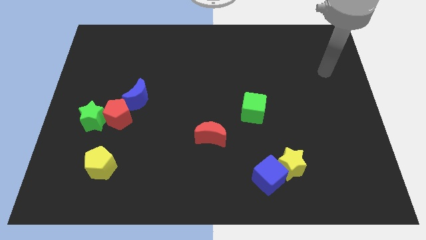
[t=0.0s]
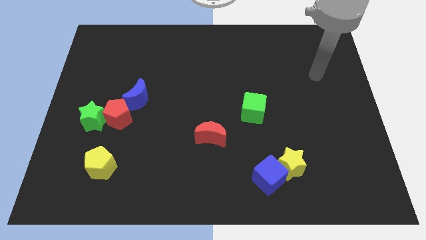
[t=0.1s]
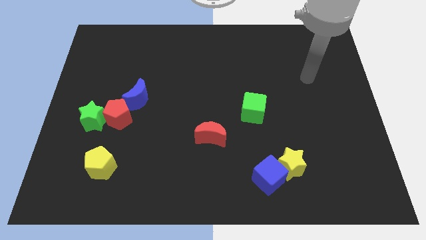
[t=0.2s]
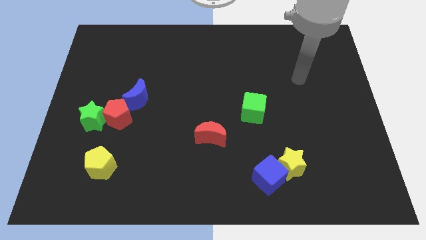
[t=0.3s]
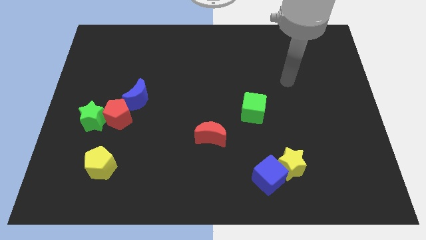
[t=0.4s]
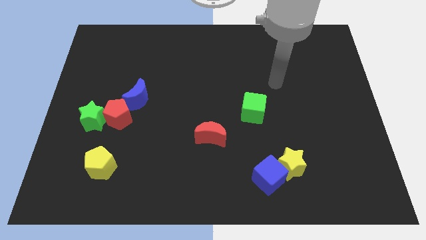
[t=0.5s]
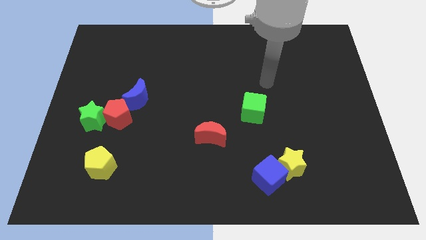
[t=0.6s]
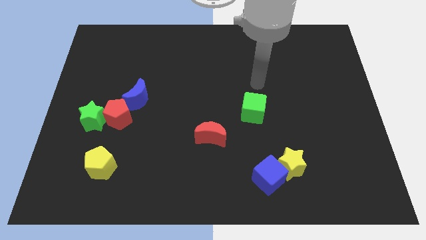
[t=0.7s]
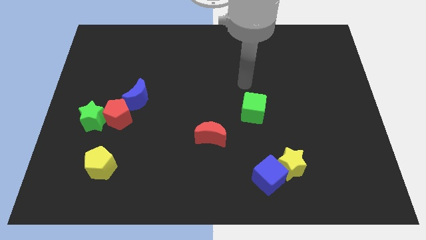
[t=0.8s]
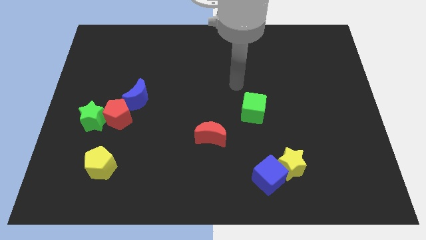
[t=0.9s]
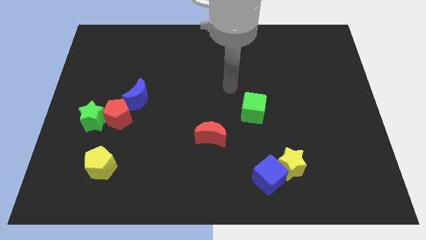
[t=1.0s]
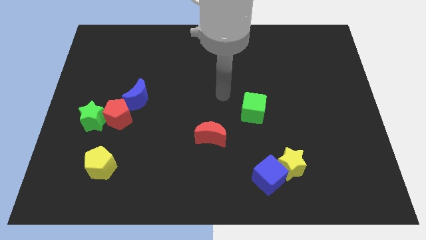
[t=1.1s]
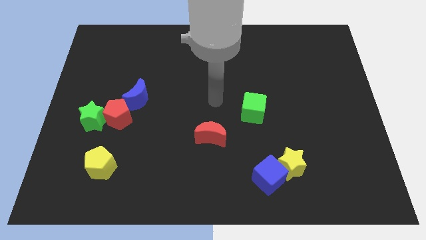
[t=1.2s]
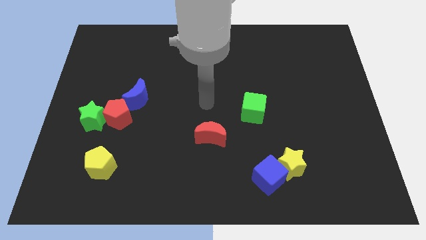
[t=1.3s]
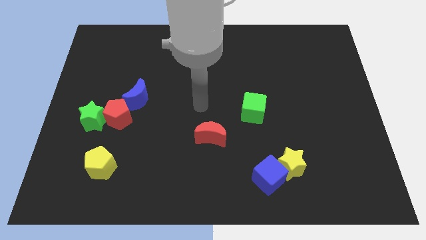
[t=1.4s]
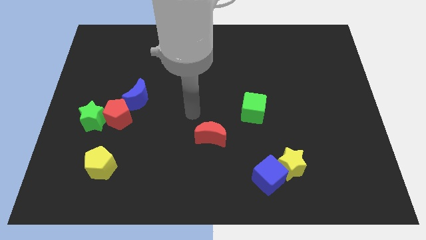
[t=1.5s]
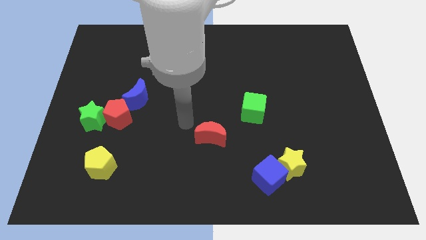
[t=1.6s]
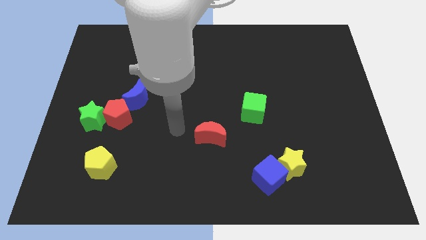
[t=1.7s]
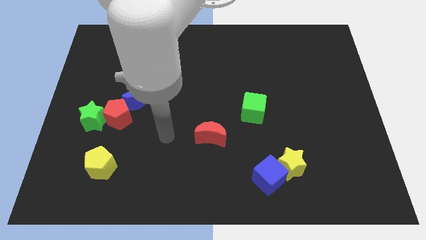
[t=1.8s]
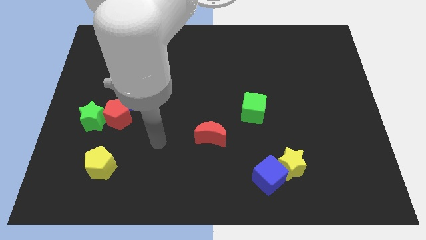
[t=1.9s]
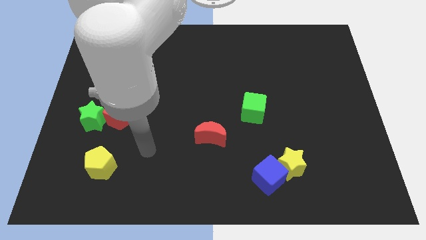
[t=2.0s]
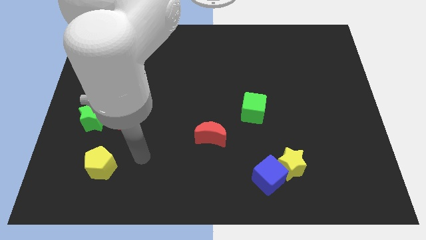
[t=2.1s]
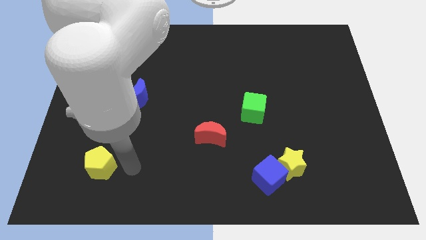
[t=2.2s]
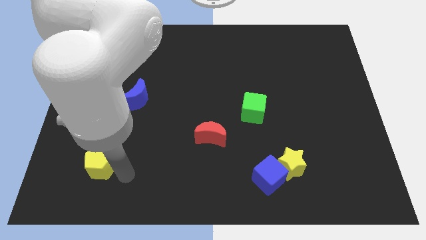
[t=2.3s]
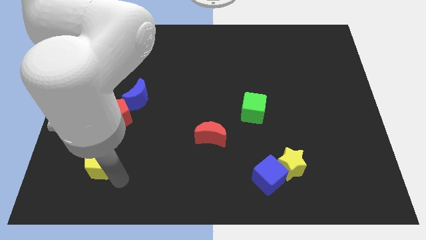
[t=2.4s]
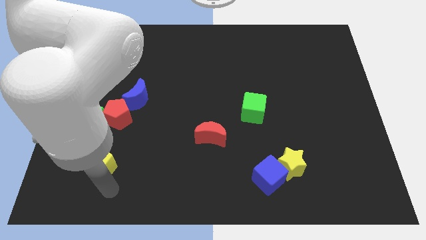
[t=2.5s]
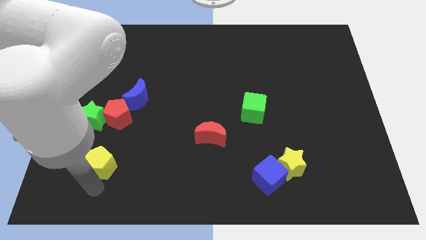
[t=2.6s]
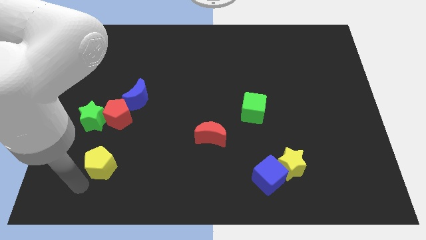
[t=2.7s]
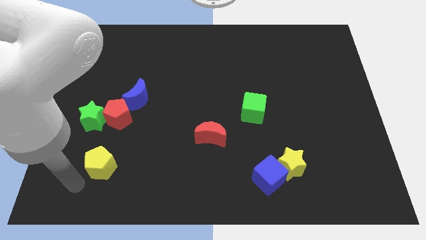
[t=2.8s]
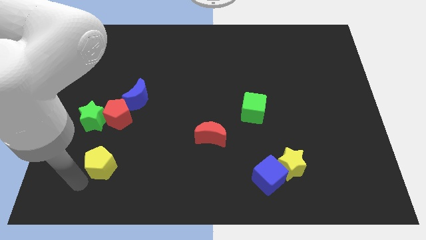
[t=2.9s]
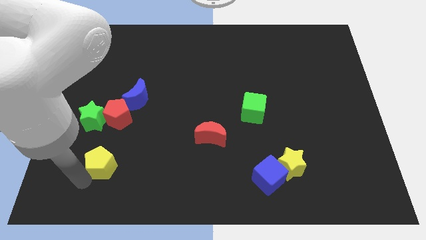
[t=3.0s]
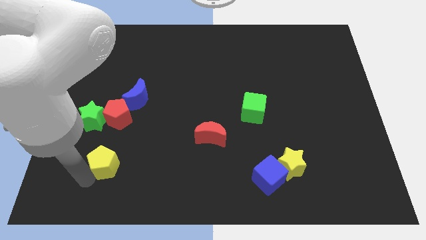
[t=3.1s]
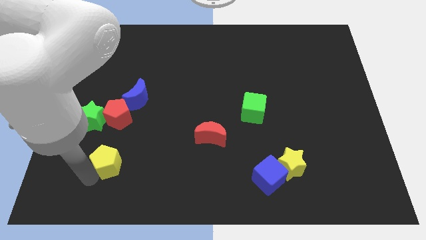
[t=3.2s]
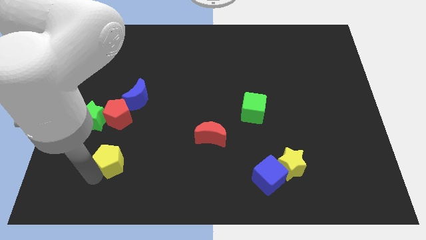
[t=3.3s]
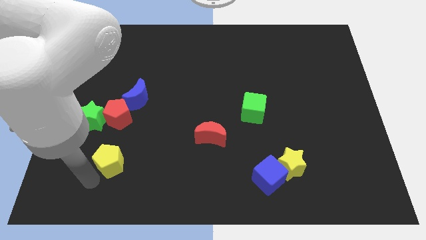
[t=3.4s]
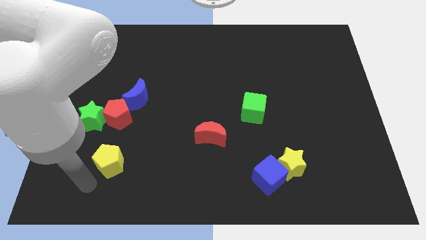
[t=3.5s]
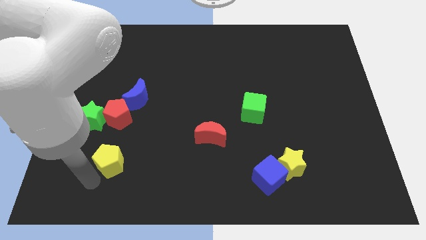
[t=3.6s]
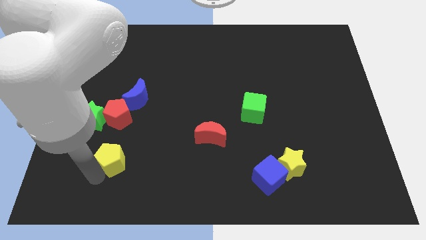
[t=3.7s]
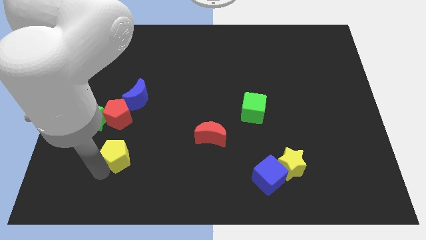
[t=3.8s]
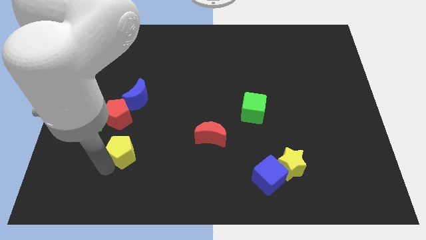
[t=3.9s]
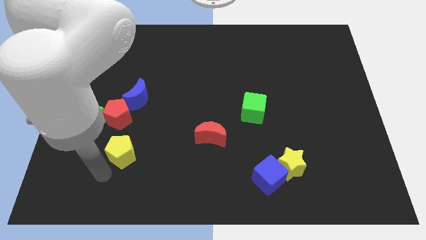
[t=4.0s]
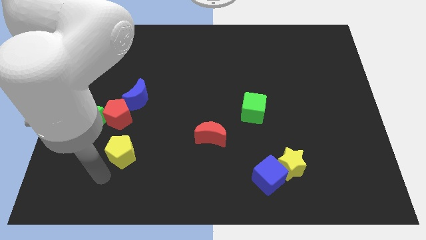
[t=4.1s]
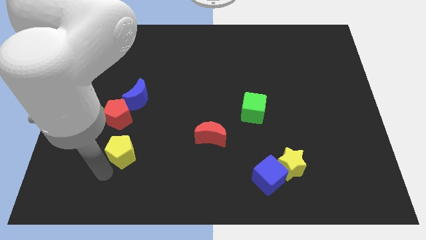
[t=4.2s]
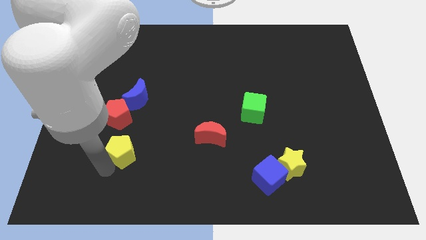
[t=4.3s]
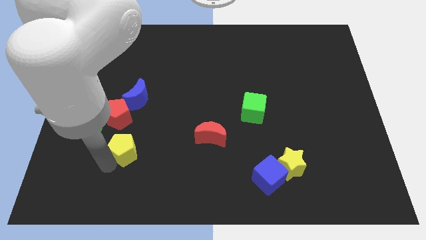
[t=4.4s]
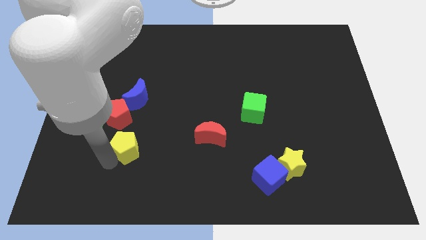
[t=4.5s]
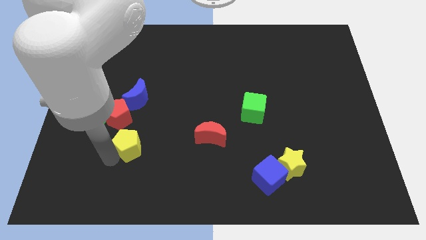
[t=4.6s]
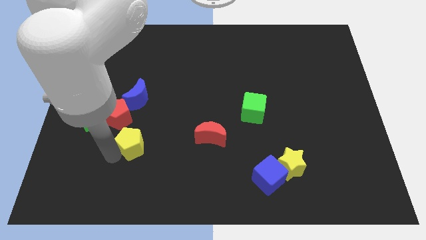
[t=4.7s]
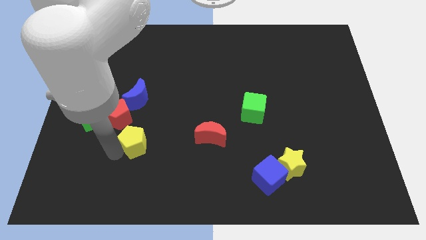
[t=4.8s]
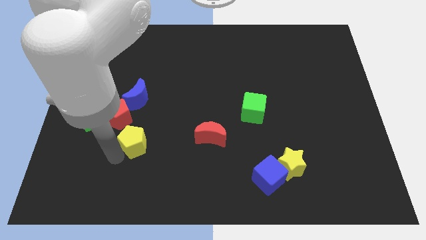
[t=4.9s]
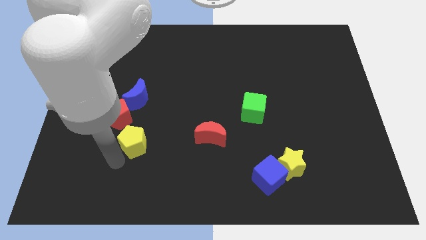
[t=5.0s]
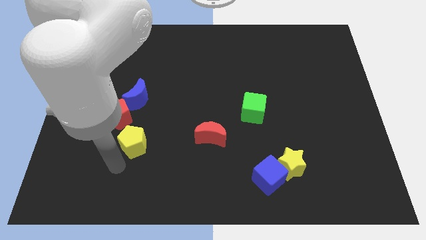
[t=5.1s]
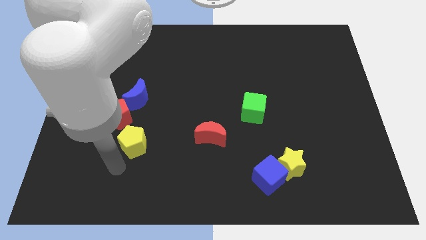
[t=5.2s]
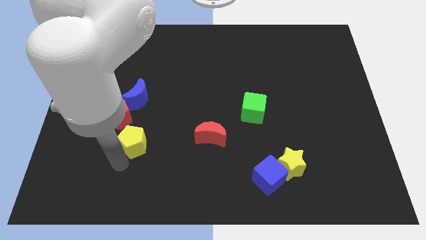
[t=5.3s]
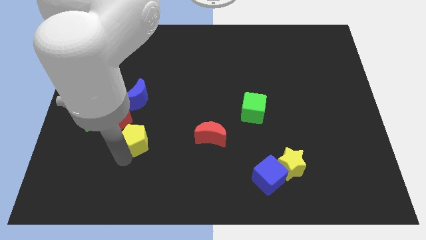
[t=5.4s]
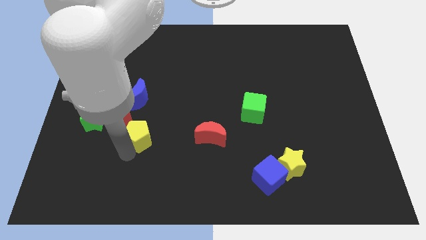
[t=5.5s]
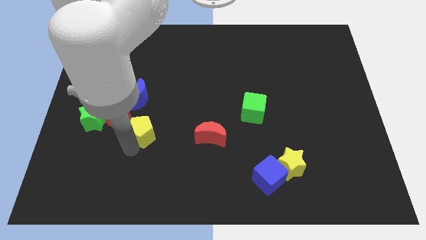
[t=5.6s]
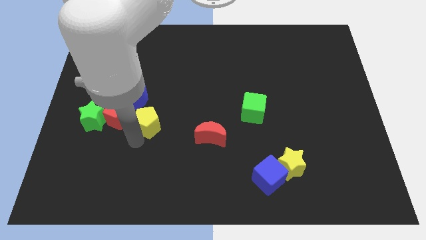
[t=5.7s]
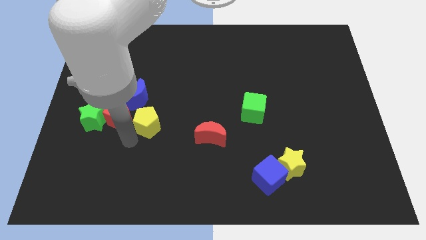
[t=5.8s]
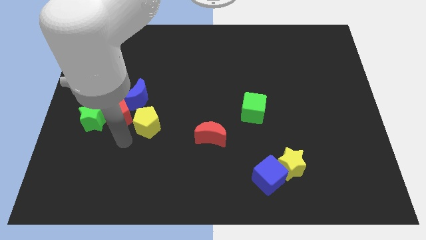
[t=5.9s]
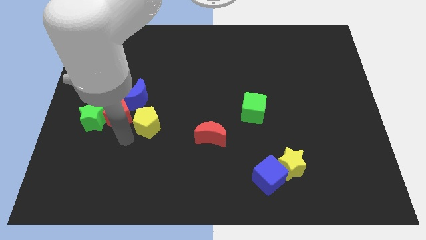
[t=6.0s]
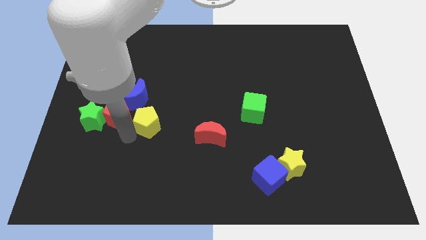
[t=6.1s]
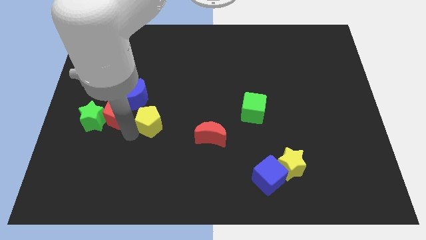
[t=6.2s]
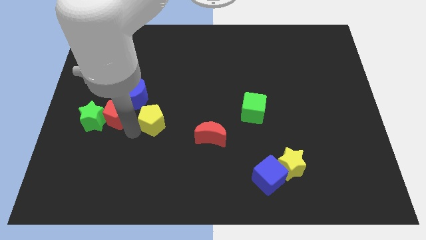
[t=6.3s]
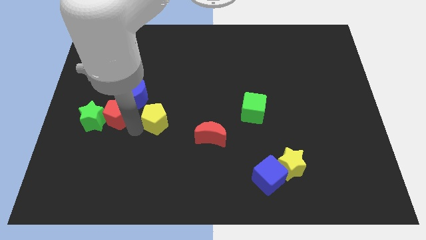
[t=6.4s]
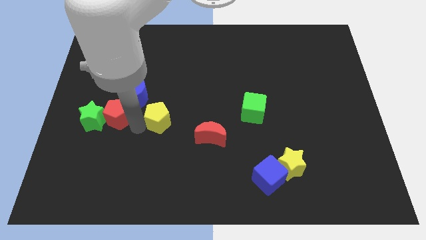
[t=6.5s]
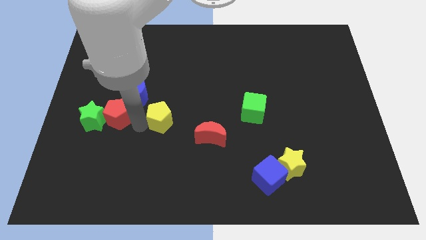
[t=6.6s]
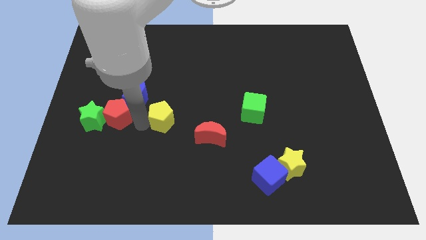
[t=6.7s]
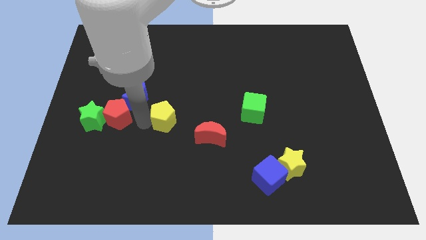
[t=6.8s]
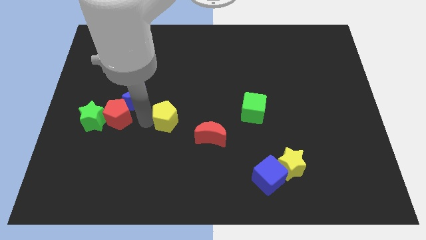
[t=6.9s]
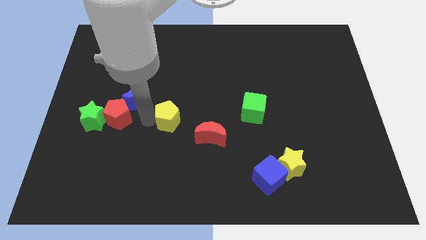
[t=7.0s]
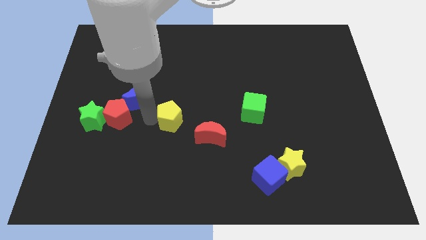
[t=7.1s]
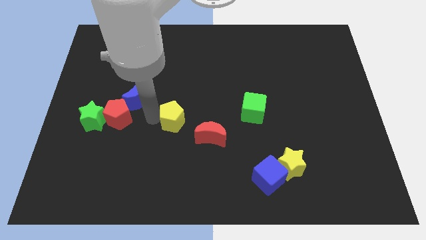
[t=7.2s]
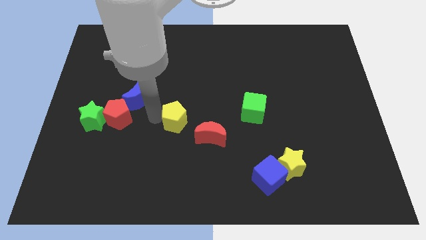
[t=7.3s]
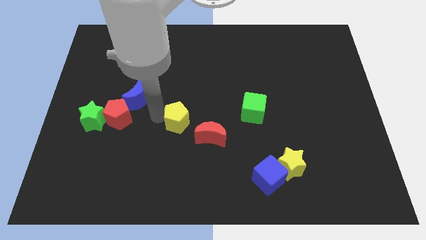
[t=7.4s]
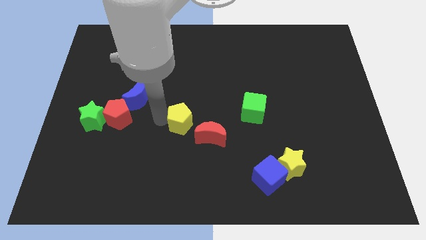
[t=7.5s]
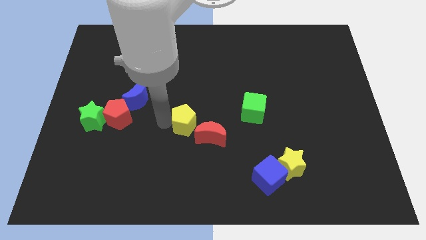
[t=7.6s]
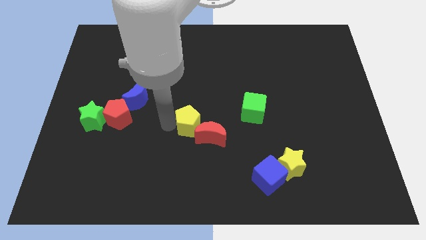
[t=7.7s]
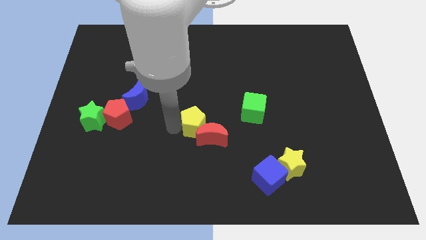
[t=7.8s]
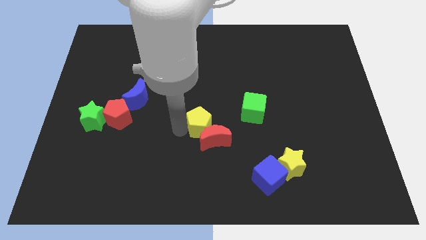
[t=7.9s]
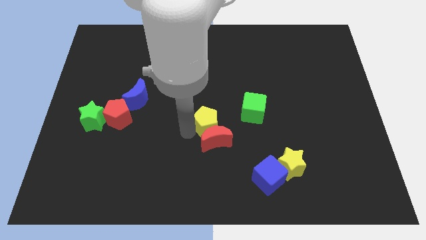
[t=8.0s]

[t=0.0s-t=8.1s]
move the yellow pentagon diagonally up and right
